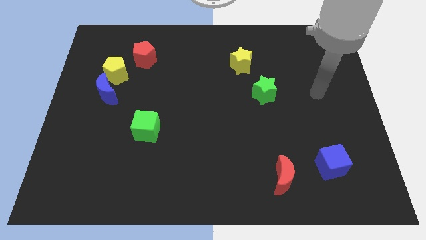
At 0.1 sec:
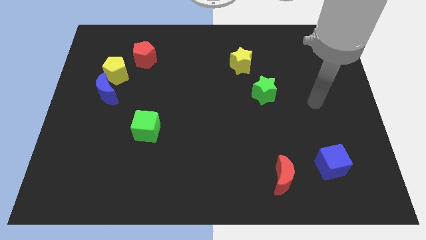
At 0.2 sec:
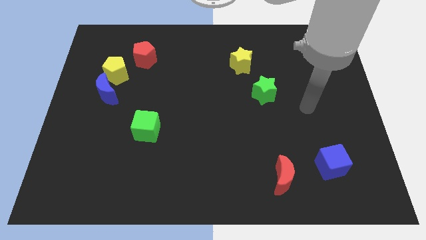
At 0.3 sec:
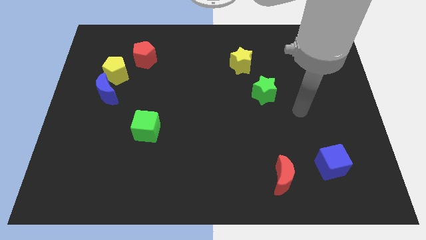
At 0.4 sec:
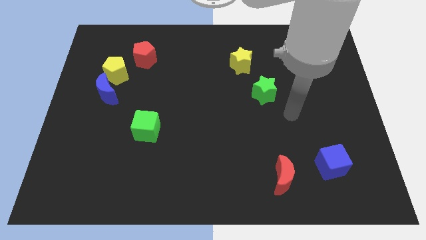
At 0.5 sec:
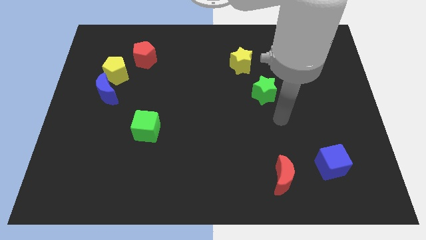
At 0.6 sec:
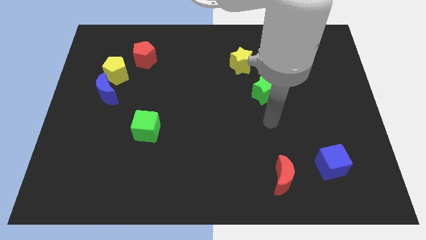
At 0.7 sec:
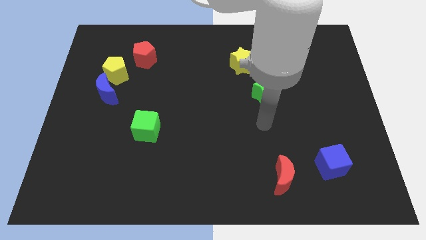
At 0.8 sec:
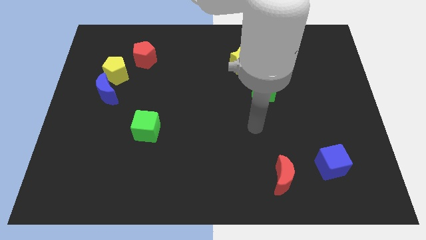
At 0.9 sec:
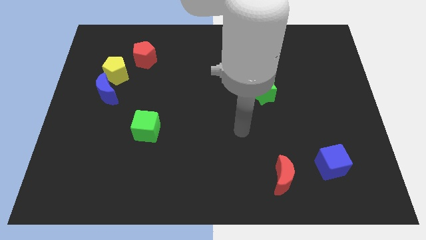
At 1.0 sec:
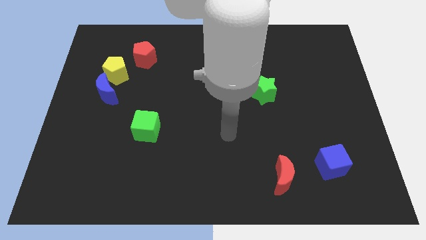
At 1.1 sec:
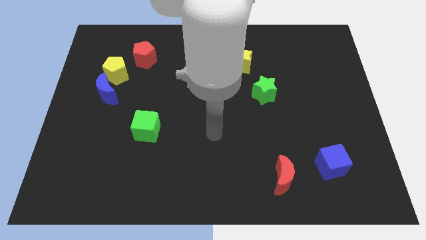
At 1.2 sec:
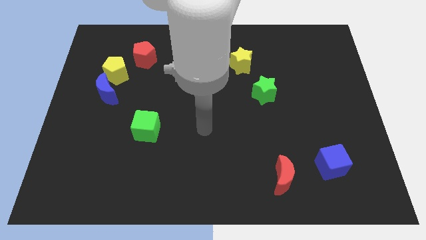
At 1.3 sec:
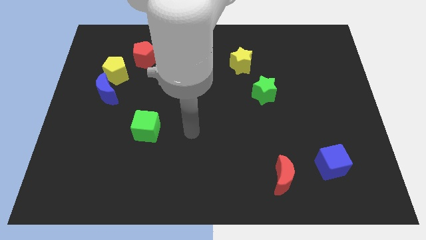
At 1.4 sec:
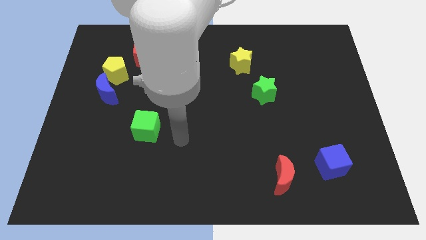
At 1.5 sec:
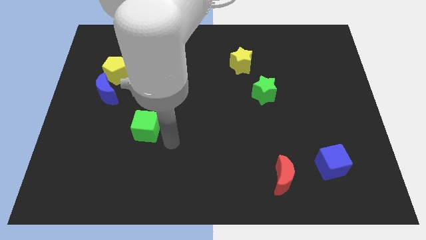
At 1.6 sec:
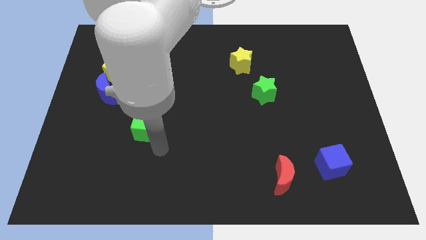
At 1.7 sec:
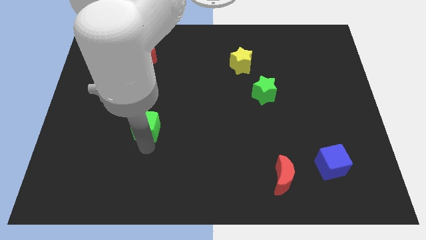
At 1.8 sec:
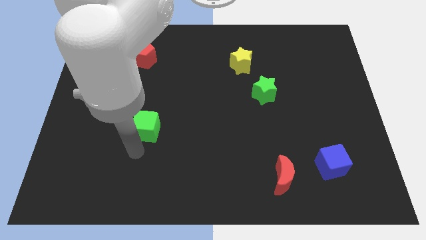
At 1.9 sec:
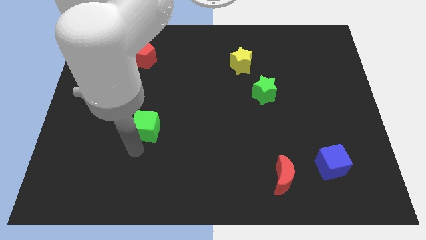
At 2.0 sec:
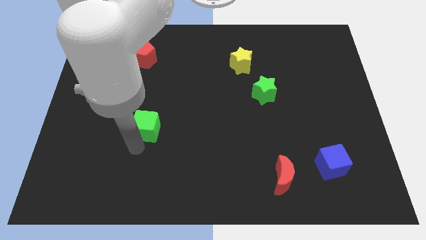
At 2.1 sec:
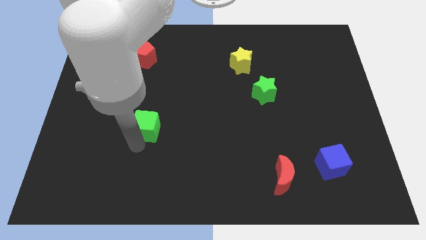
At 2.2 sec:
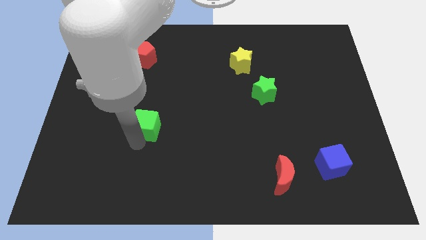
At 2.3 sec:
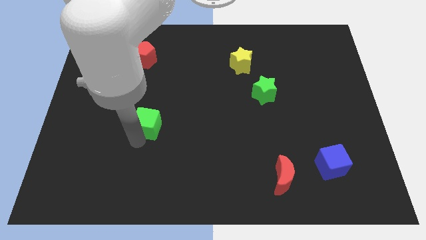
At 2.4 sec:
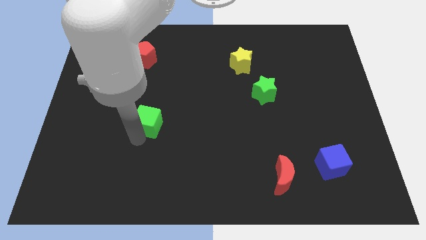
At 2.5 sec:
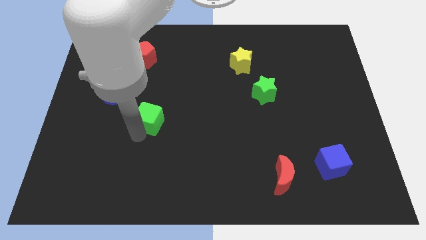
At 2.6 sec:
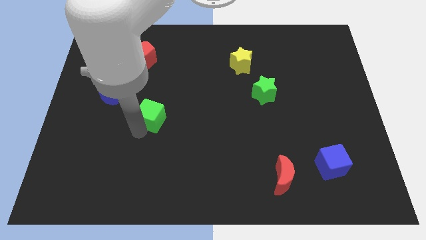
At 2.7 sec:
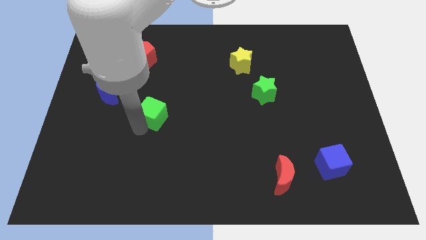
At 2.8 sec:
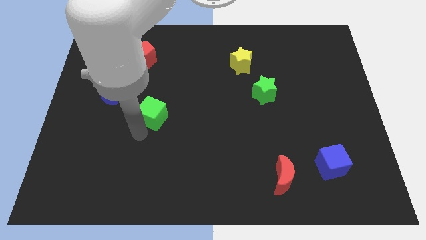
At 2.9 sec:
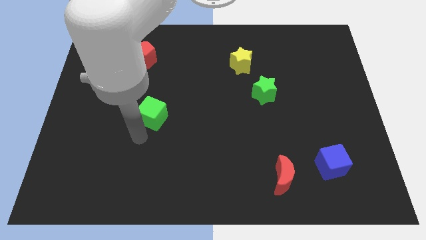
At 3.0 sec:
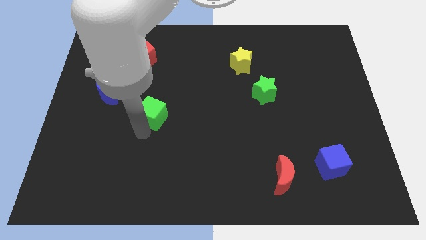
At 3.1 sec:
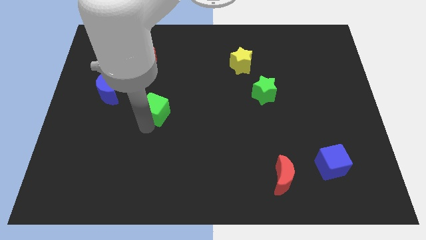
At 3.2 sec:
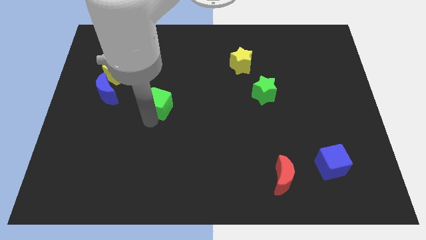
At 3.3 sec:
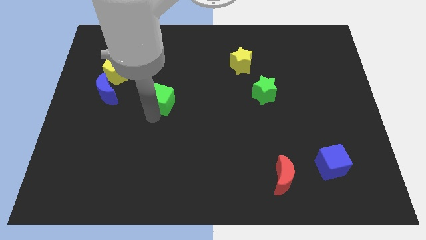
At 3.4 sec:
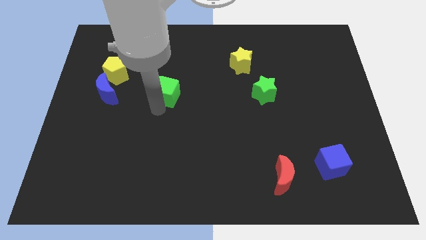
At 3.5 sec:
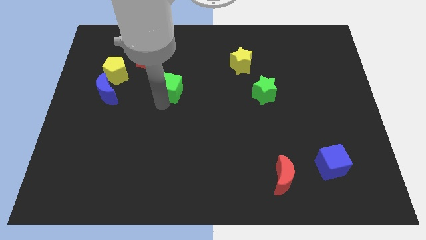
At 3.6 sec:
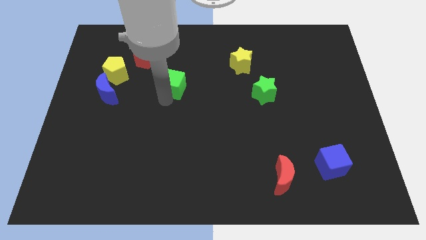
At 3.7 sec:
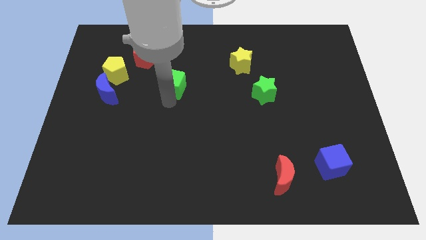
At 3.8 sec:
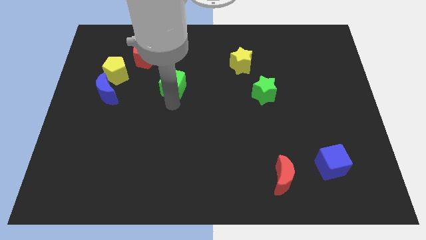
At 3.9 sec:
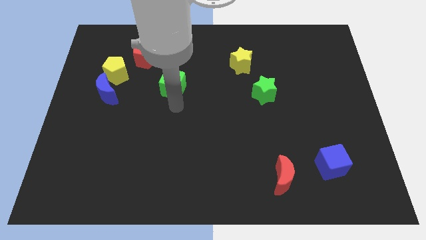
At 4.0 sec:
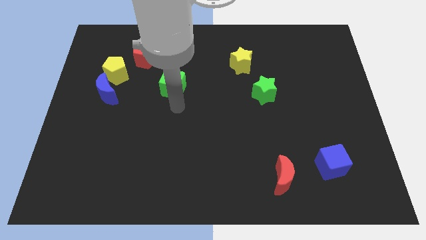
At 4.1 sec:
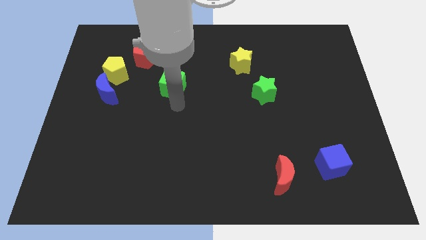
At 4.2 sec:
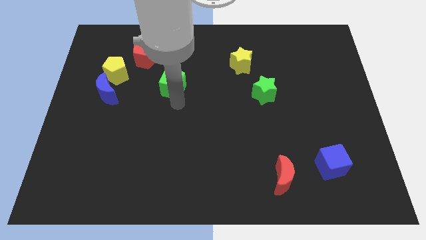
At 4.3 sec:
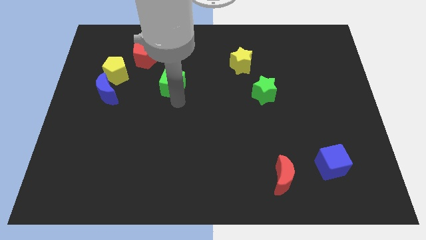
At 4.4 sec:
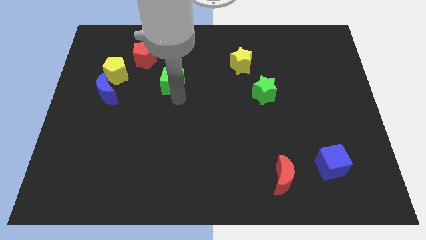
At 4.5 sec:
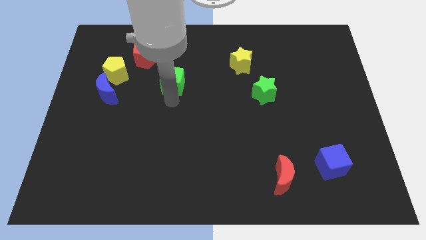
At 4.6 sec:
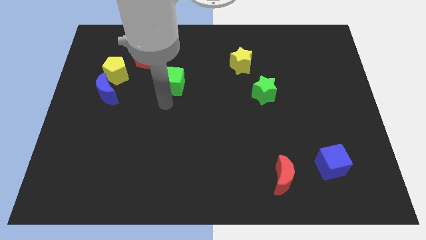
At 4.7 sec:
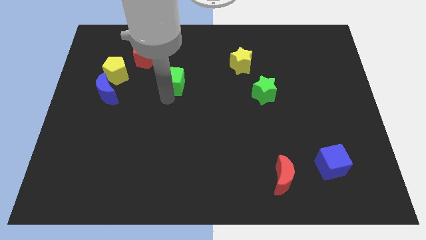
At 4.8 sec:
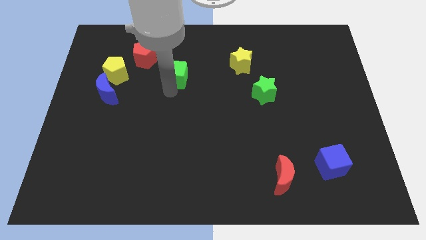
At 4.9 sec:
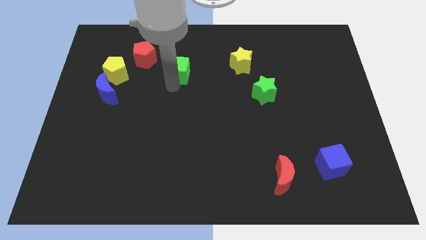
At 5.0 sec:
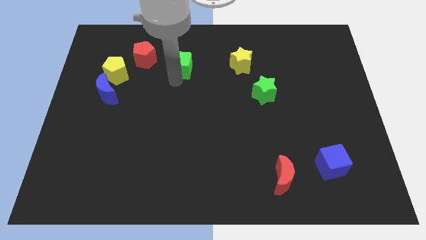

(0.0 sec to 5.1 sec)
push the green cube right of the red pentagon

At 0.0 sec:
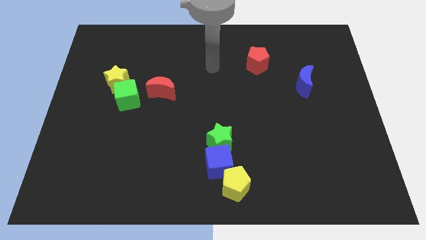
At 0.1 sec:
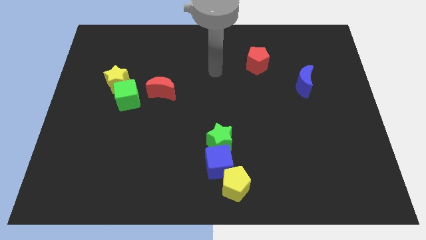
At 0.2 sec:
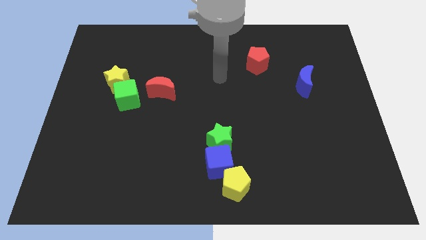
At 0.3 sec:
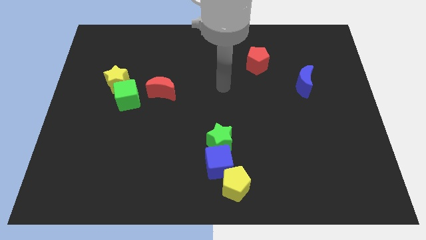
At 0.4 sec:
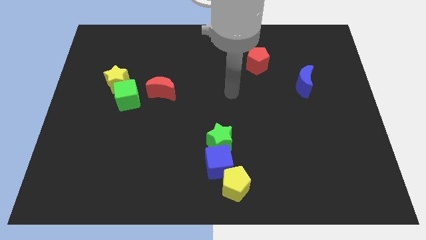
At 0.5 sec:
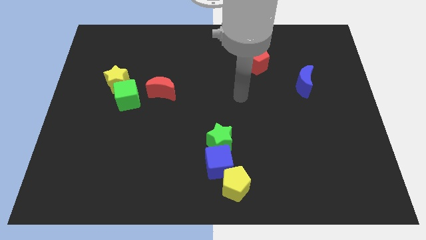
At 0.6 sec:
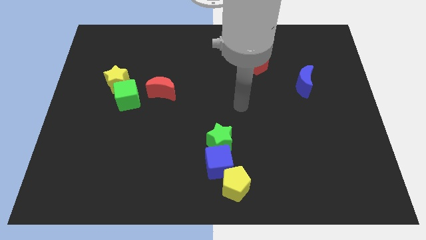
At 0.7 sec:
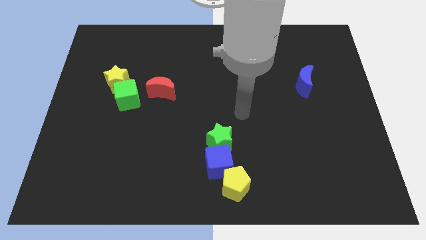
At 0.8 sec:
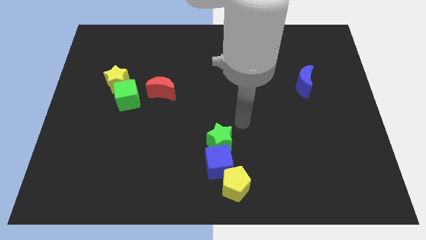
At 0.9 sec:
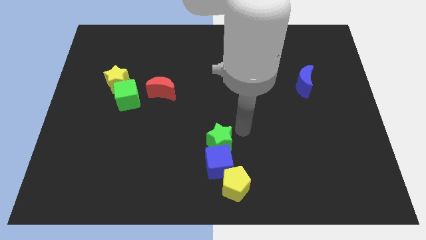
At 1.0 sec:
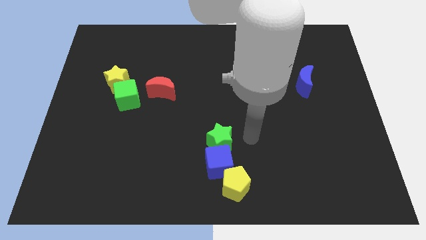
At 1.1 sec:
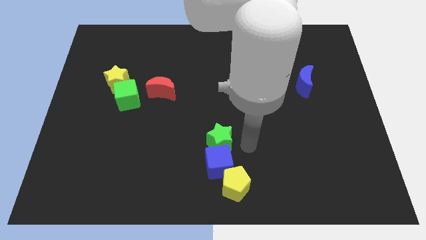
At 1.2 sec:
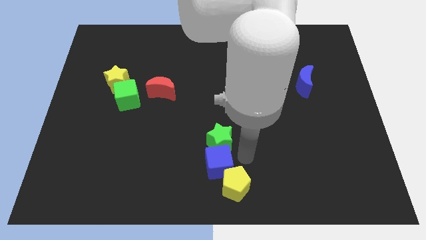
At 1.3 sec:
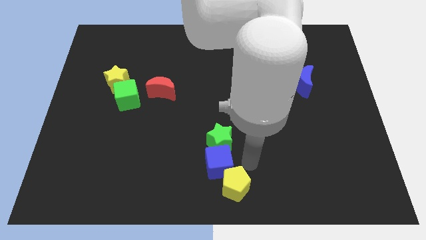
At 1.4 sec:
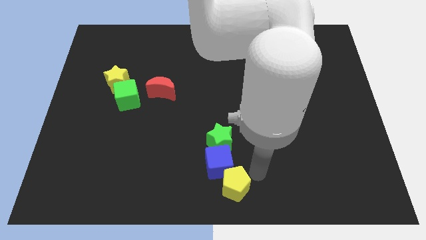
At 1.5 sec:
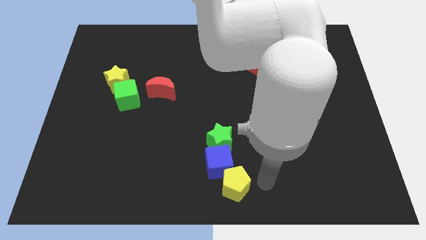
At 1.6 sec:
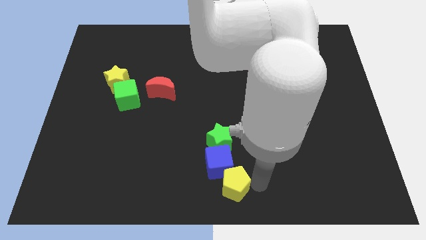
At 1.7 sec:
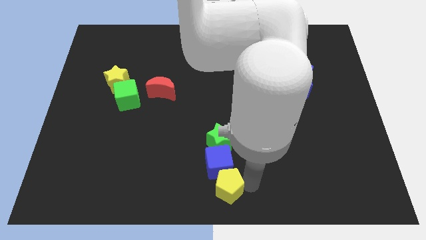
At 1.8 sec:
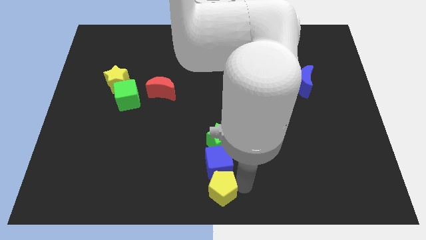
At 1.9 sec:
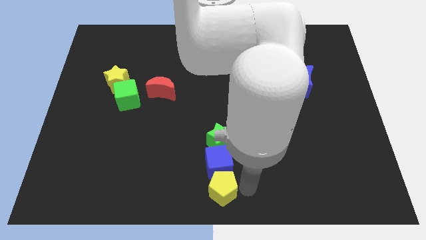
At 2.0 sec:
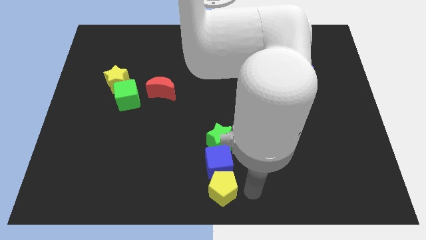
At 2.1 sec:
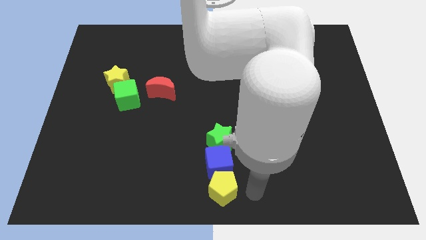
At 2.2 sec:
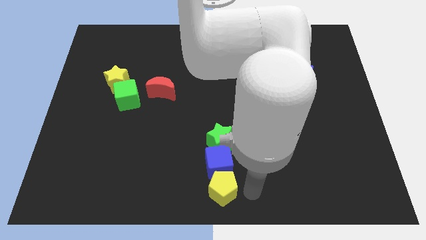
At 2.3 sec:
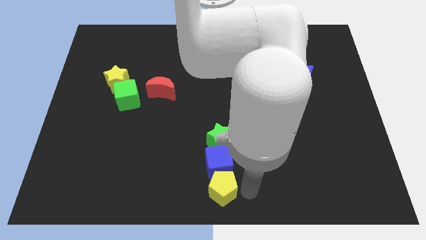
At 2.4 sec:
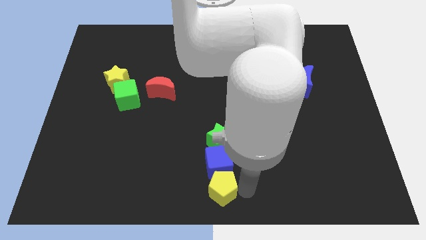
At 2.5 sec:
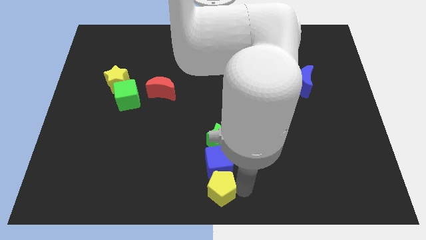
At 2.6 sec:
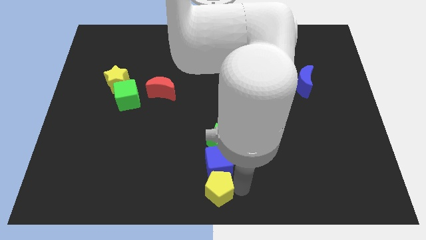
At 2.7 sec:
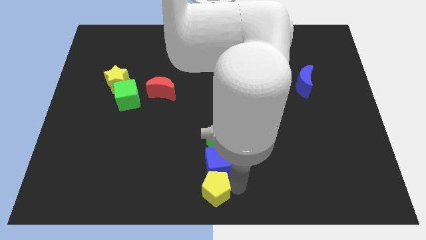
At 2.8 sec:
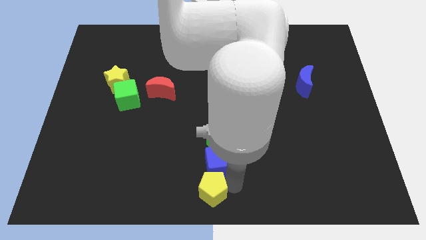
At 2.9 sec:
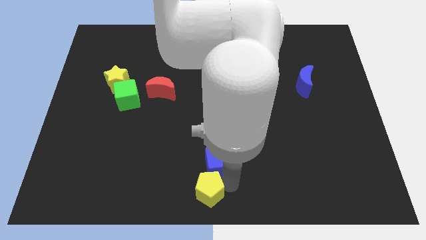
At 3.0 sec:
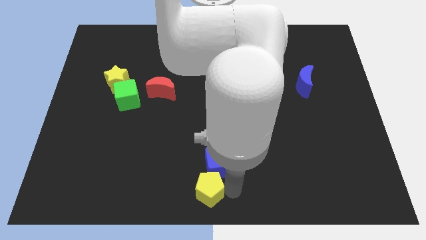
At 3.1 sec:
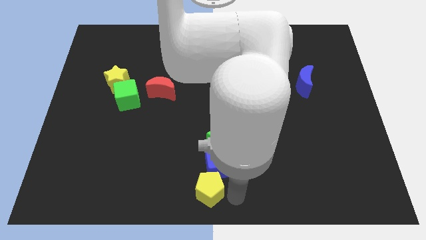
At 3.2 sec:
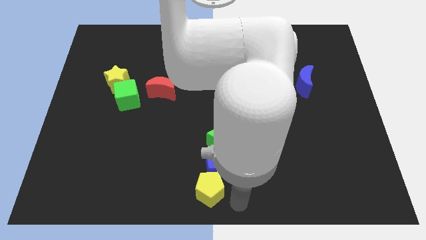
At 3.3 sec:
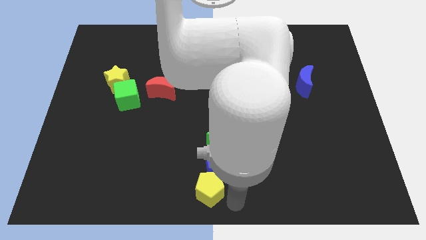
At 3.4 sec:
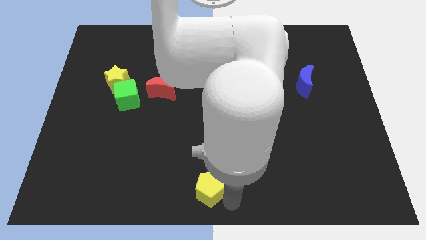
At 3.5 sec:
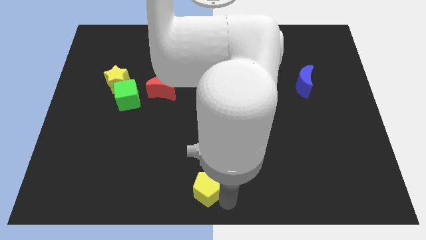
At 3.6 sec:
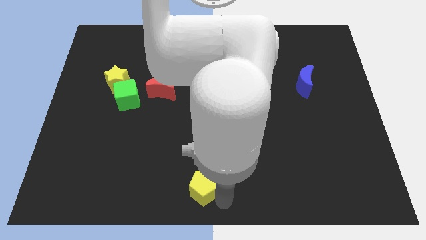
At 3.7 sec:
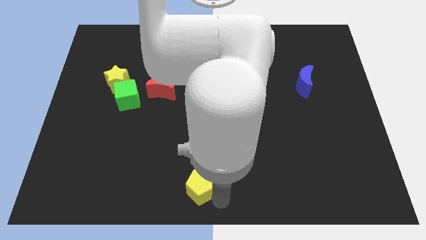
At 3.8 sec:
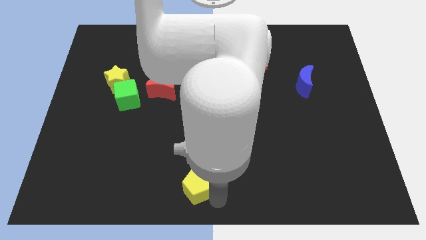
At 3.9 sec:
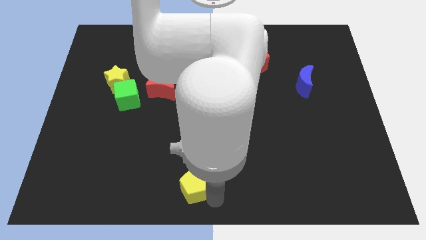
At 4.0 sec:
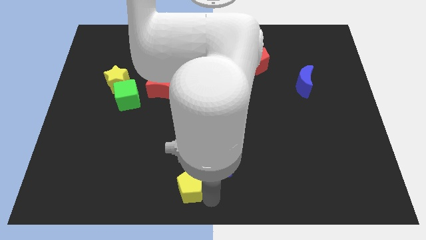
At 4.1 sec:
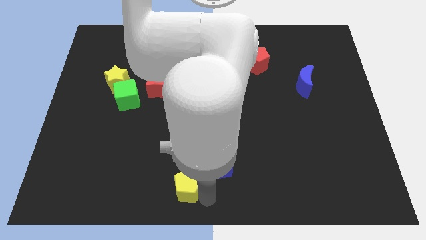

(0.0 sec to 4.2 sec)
put the yellow pentagon left of the blue cube
